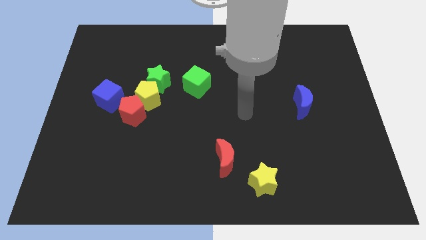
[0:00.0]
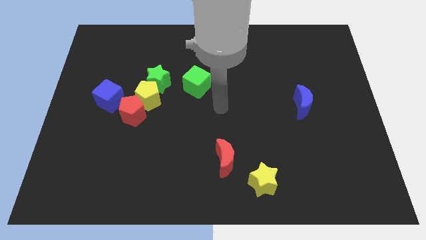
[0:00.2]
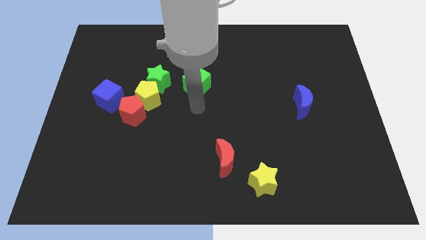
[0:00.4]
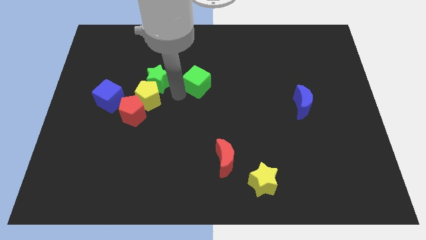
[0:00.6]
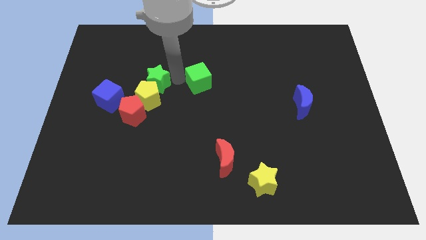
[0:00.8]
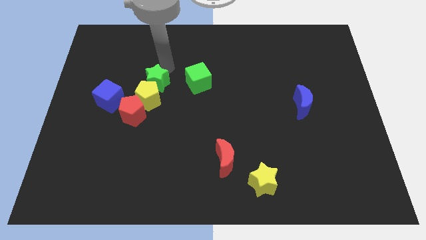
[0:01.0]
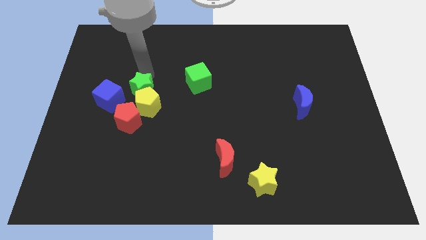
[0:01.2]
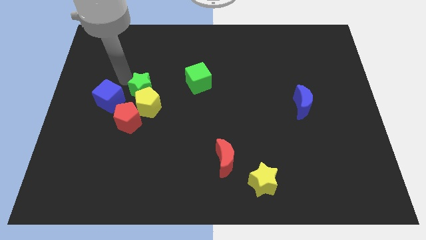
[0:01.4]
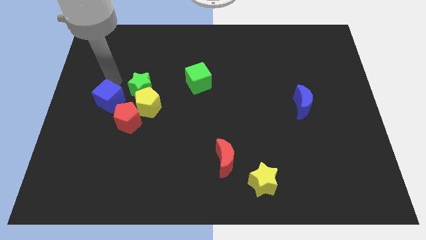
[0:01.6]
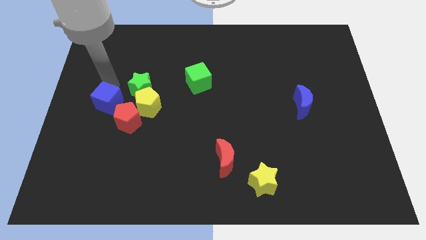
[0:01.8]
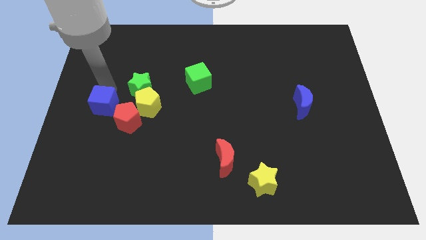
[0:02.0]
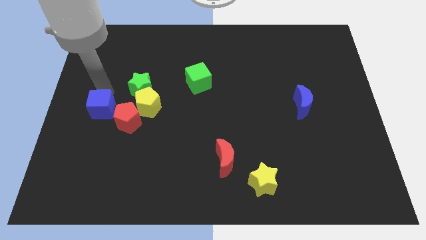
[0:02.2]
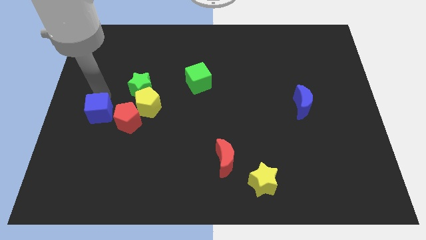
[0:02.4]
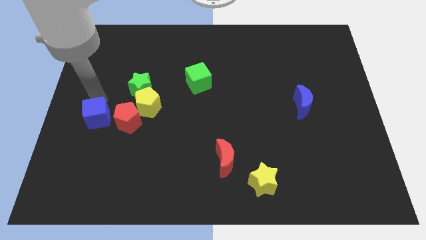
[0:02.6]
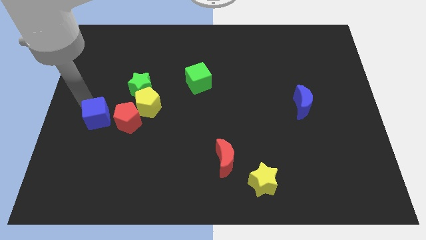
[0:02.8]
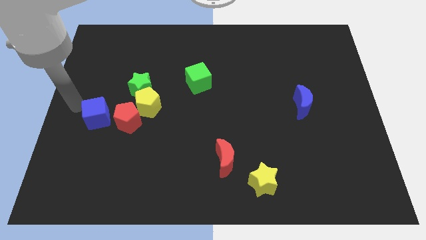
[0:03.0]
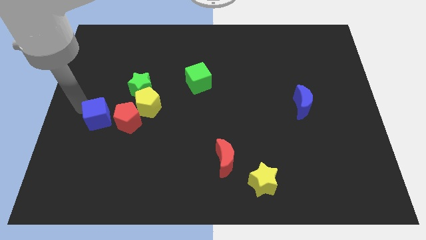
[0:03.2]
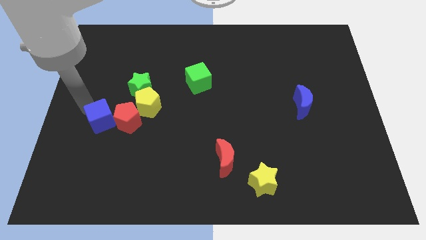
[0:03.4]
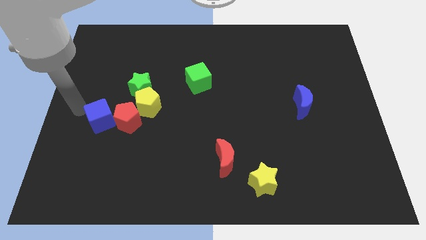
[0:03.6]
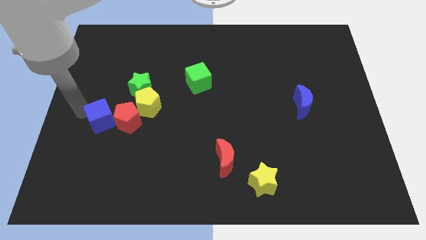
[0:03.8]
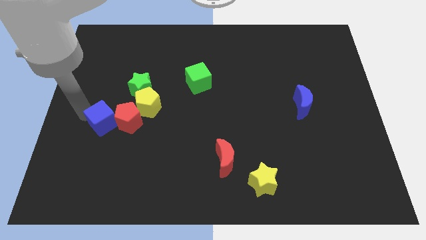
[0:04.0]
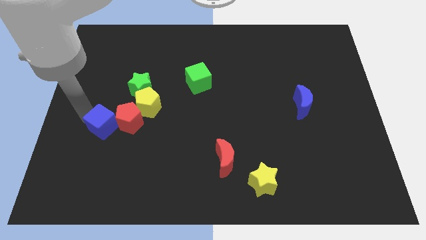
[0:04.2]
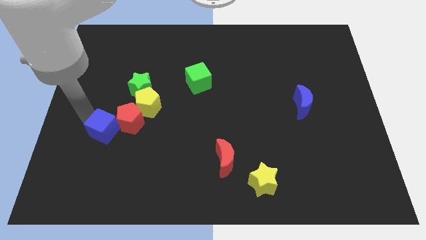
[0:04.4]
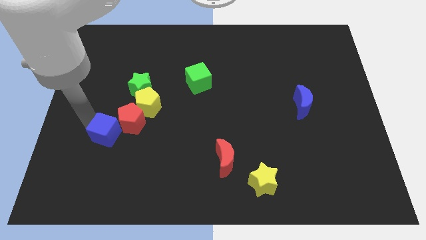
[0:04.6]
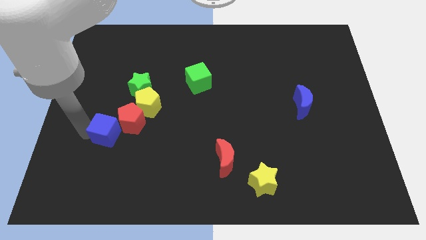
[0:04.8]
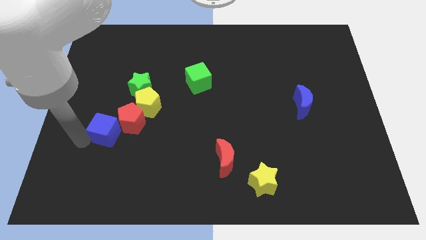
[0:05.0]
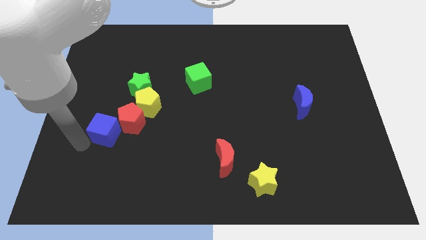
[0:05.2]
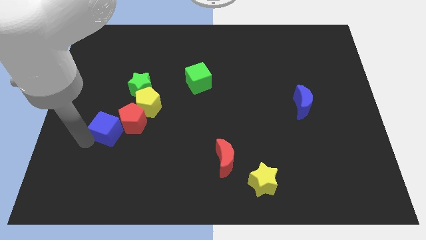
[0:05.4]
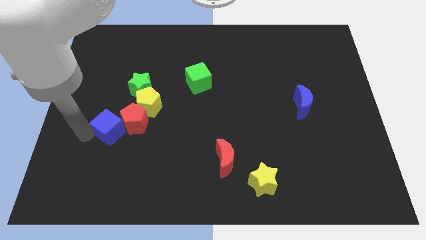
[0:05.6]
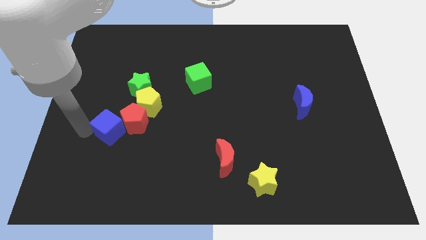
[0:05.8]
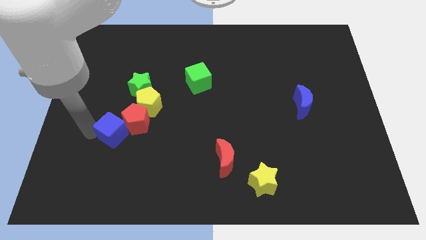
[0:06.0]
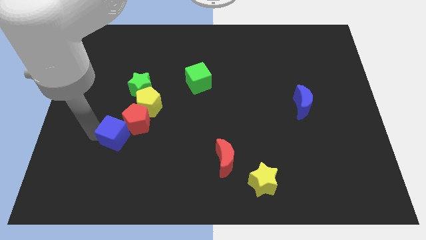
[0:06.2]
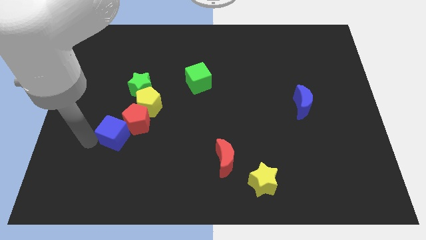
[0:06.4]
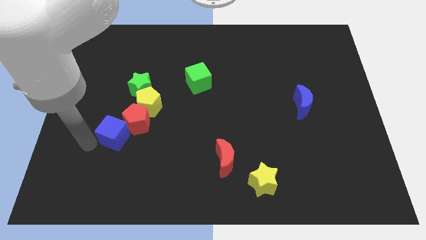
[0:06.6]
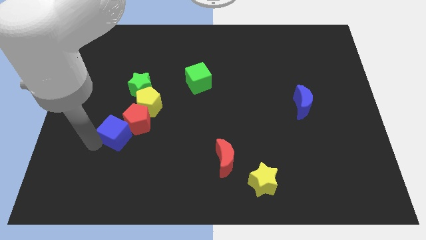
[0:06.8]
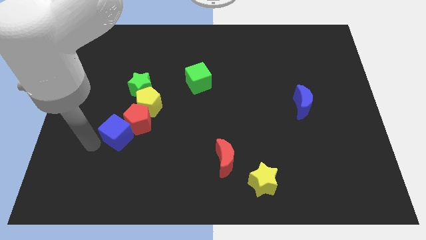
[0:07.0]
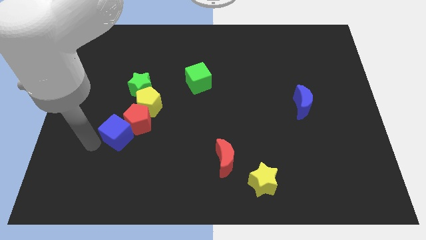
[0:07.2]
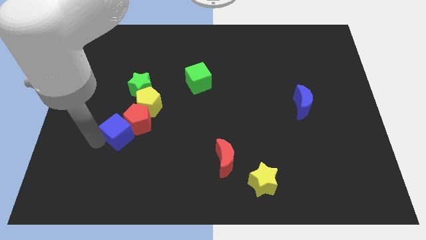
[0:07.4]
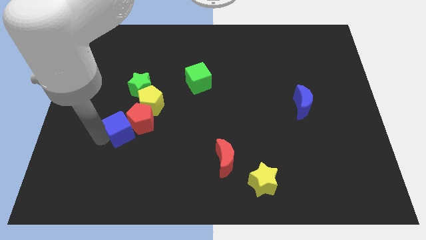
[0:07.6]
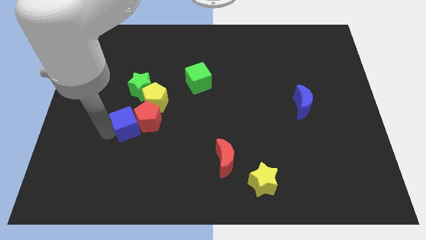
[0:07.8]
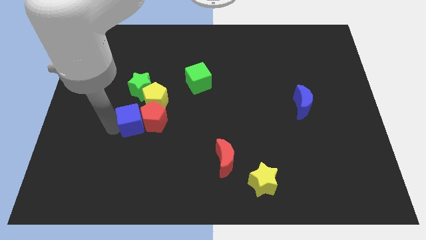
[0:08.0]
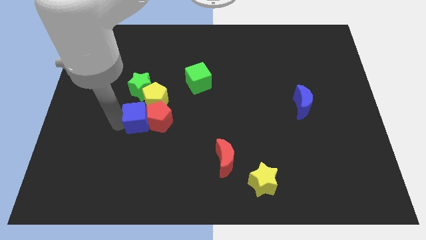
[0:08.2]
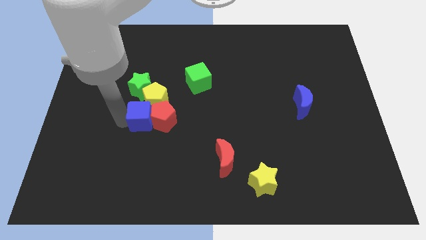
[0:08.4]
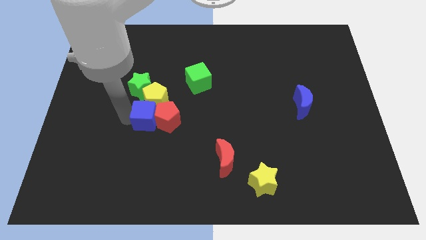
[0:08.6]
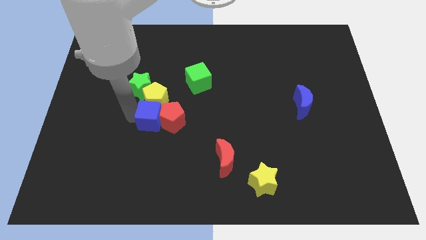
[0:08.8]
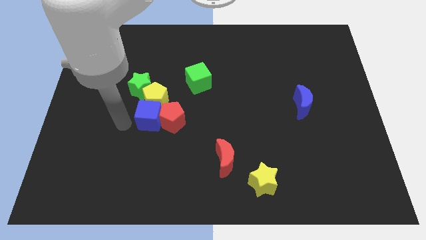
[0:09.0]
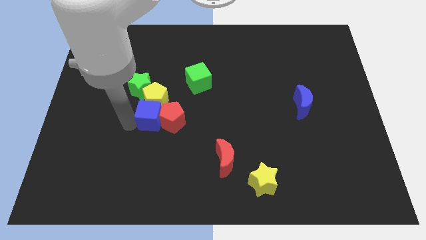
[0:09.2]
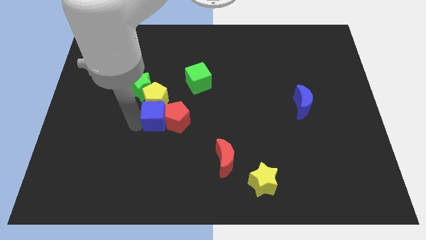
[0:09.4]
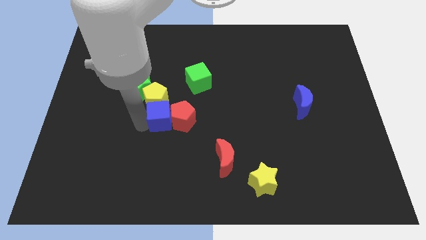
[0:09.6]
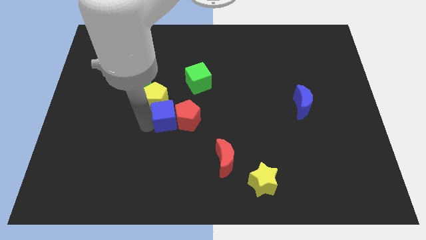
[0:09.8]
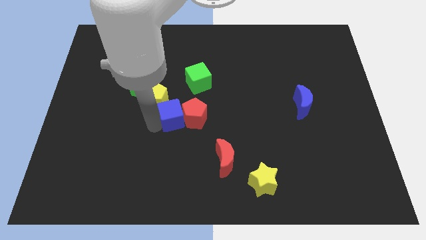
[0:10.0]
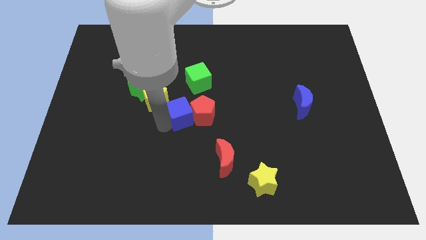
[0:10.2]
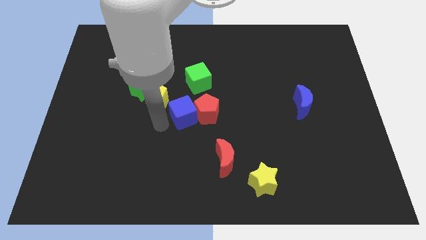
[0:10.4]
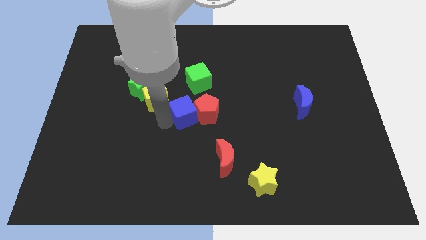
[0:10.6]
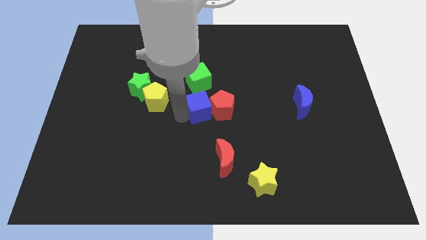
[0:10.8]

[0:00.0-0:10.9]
move the blue cube right

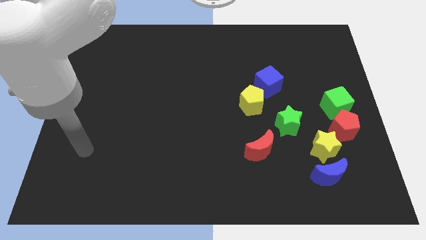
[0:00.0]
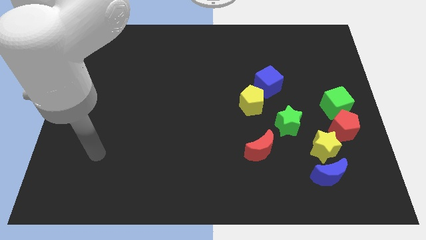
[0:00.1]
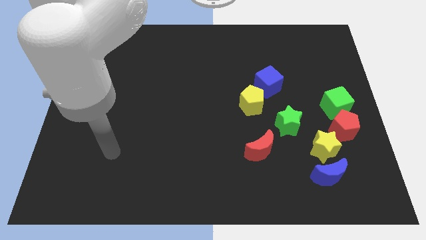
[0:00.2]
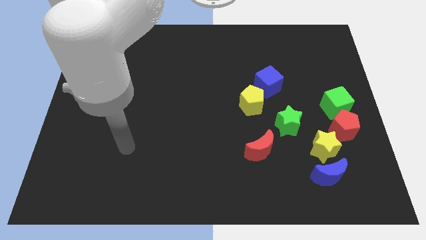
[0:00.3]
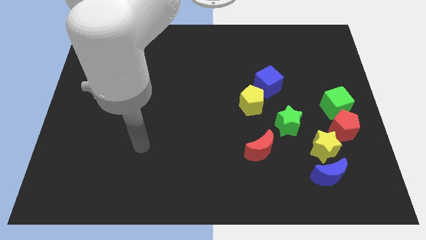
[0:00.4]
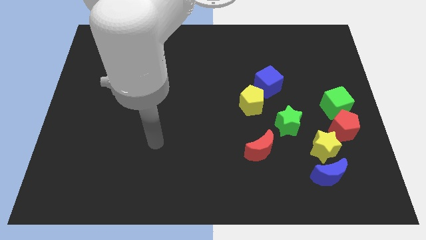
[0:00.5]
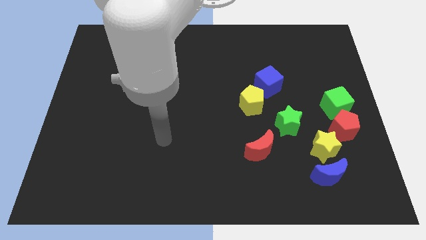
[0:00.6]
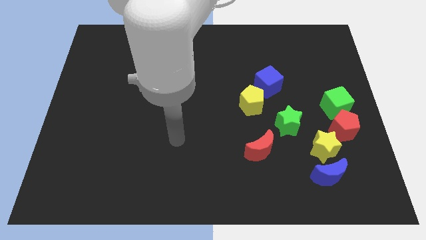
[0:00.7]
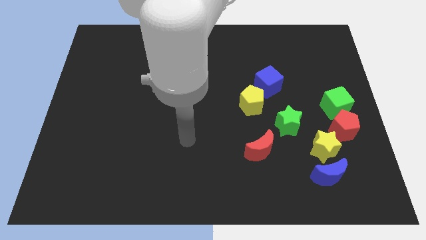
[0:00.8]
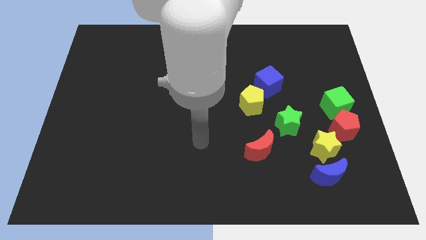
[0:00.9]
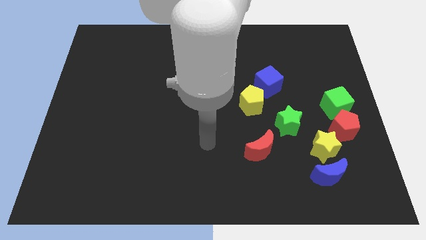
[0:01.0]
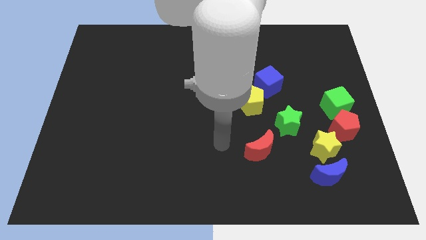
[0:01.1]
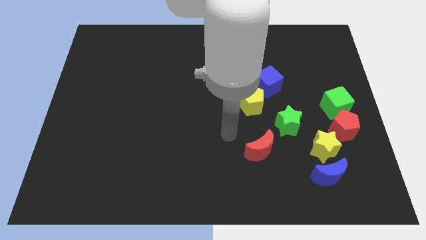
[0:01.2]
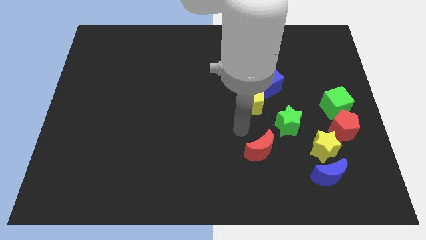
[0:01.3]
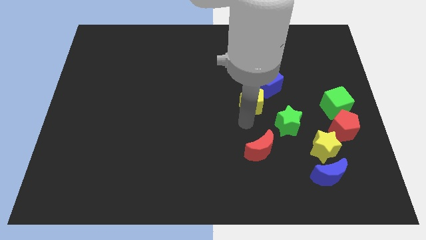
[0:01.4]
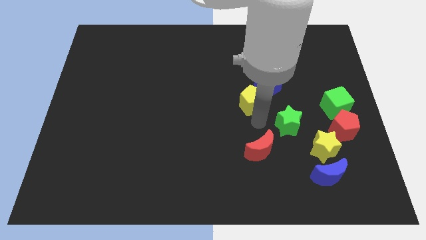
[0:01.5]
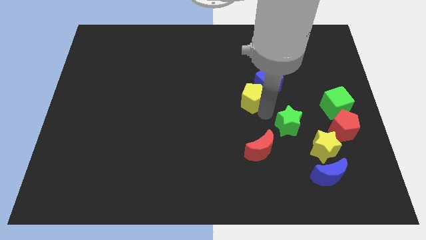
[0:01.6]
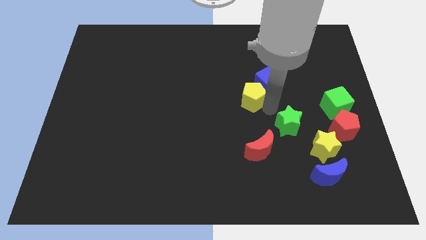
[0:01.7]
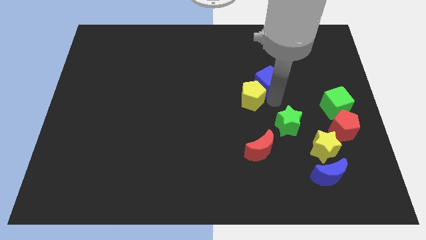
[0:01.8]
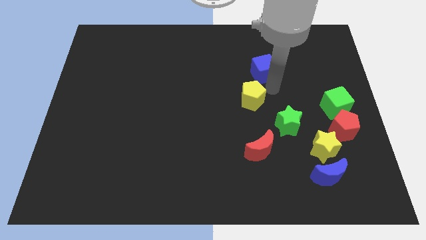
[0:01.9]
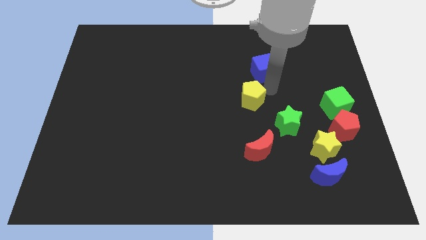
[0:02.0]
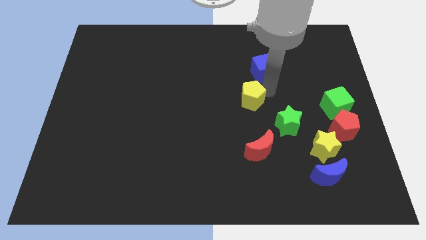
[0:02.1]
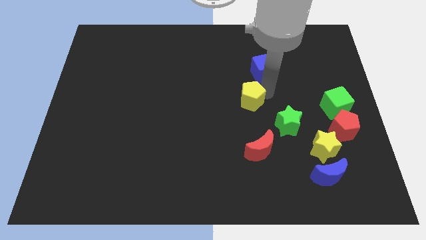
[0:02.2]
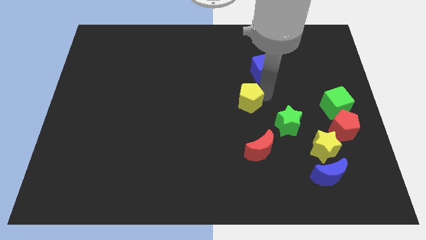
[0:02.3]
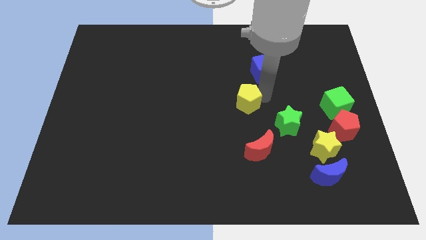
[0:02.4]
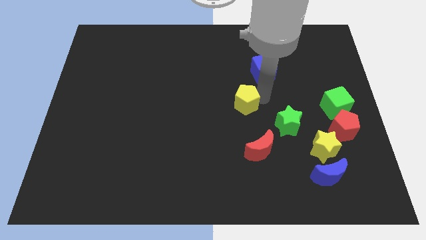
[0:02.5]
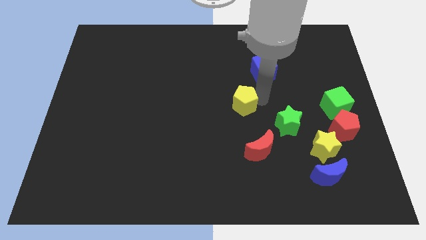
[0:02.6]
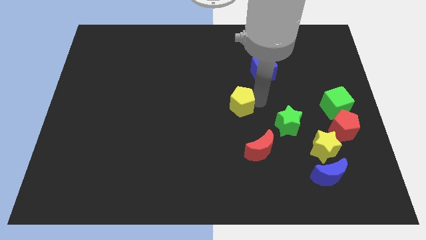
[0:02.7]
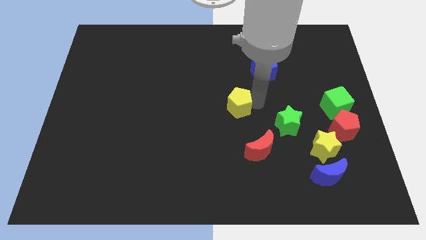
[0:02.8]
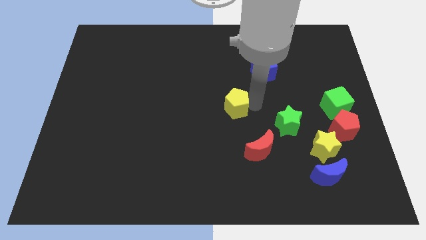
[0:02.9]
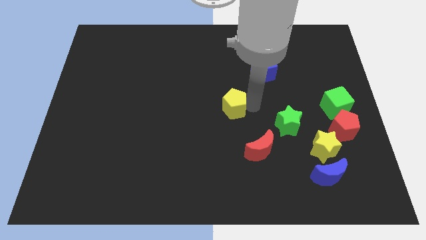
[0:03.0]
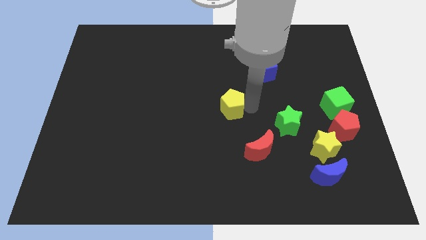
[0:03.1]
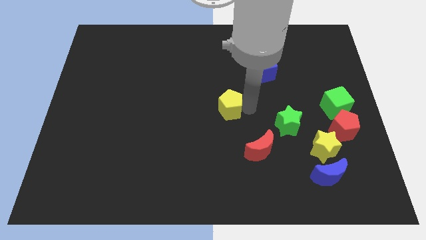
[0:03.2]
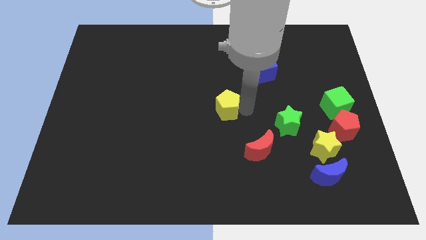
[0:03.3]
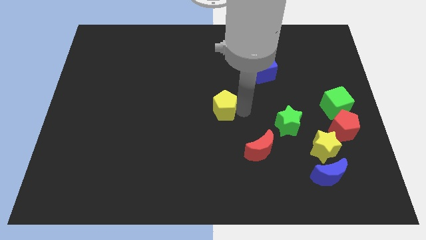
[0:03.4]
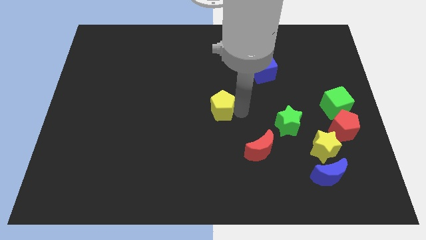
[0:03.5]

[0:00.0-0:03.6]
move the yellow pentagon a little bit to the left
